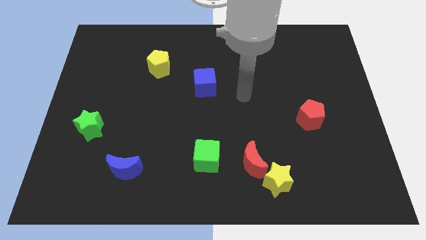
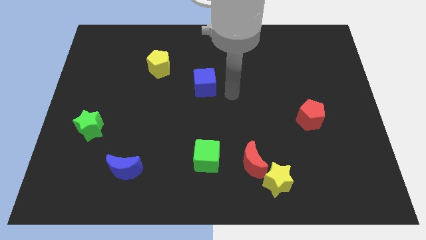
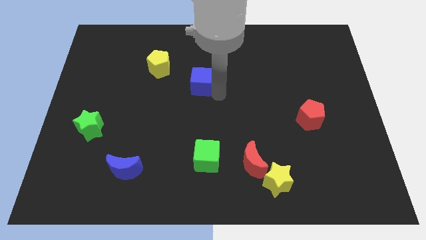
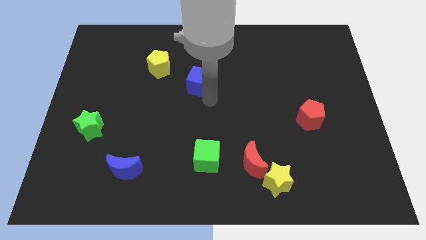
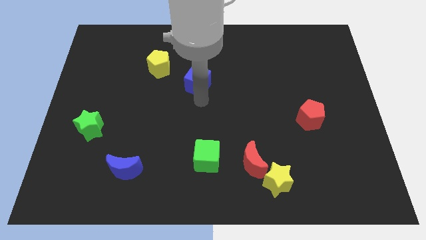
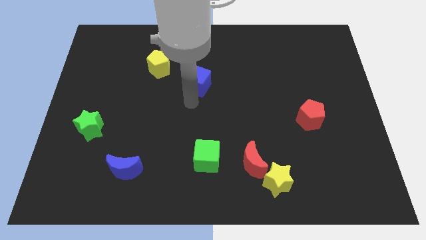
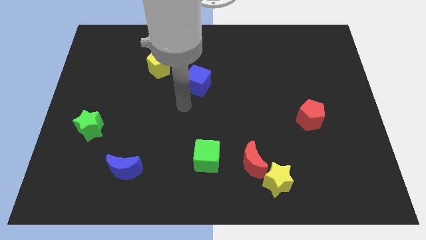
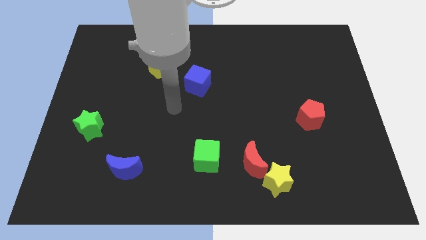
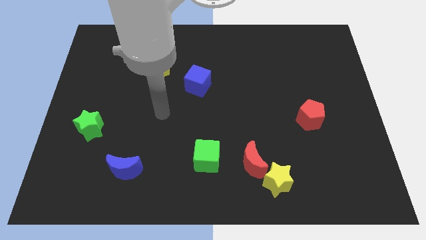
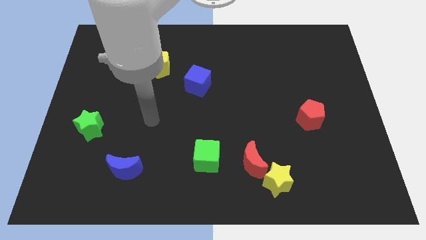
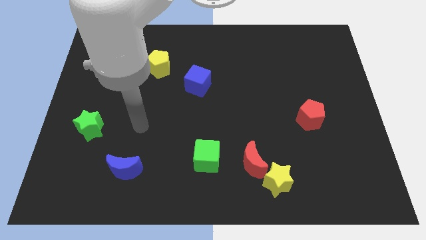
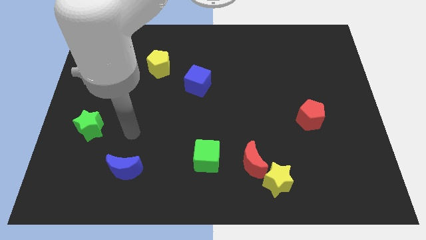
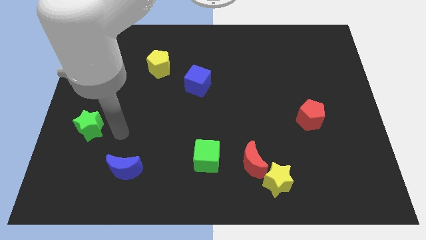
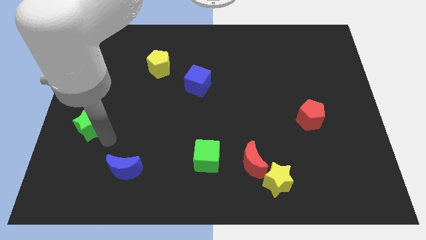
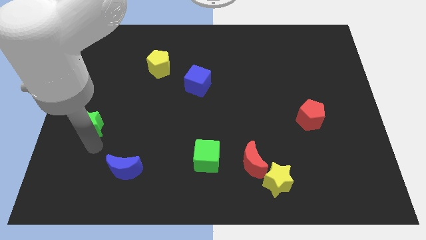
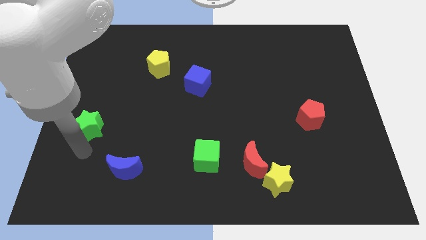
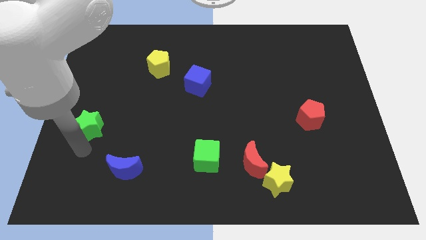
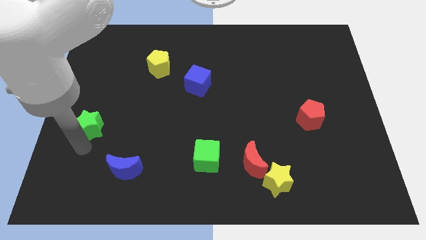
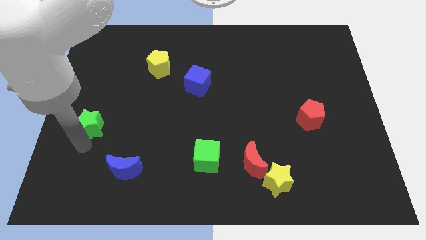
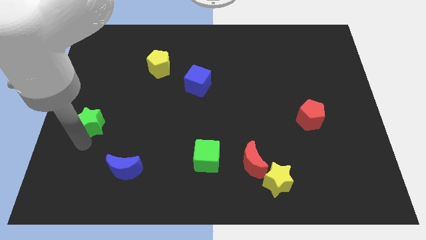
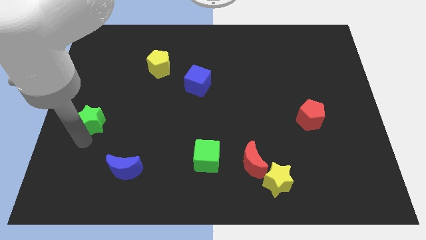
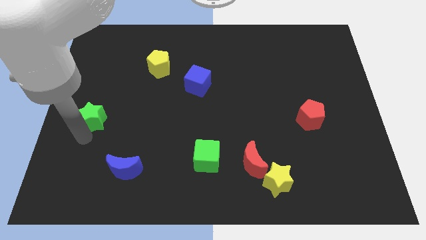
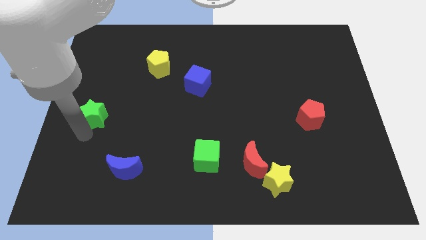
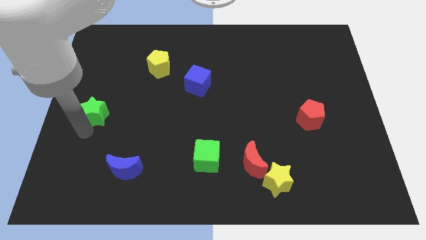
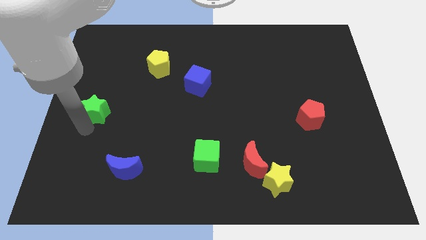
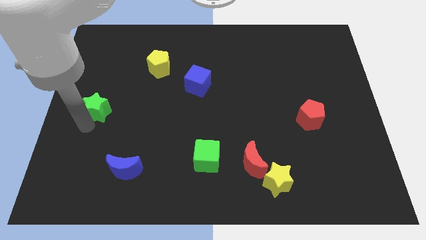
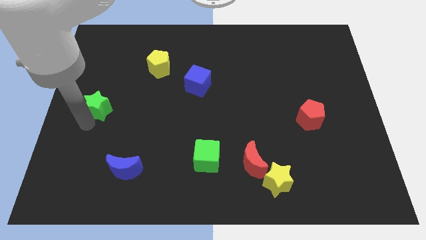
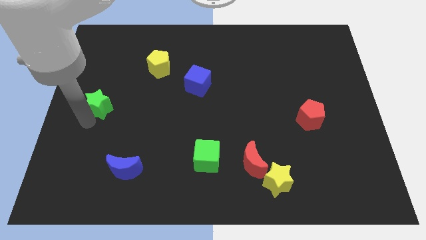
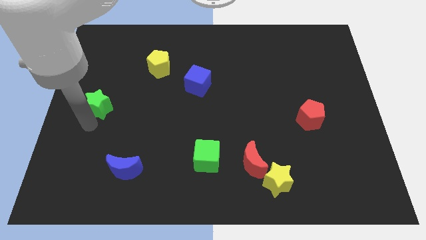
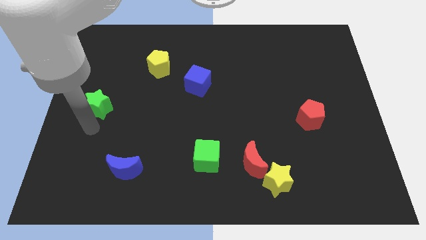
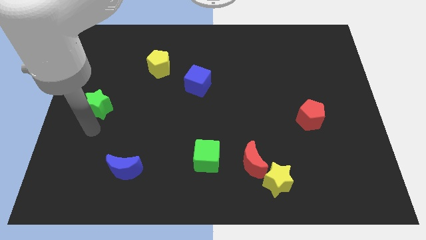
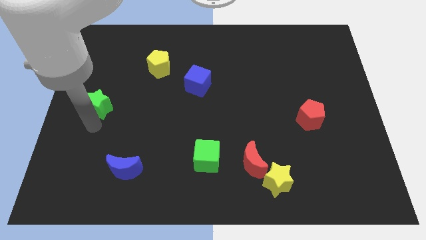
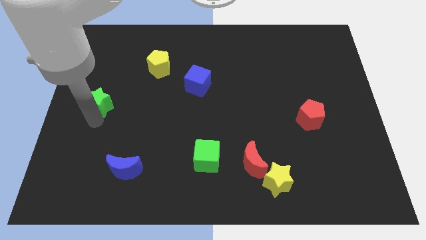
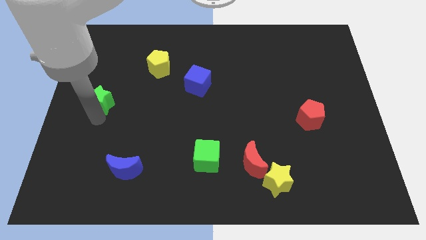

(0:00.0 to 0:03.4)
push the green star up a little bit

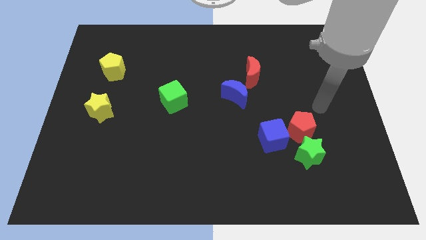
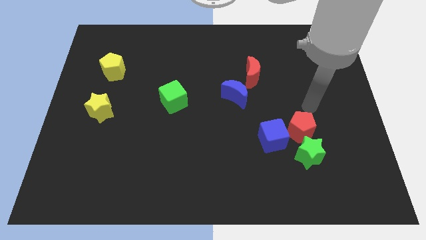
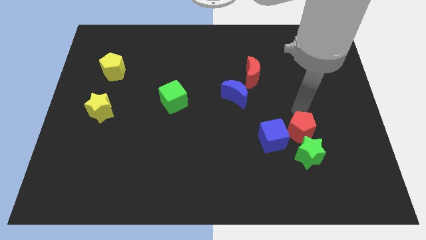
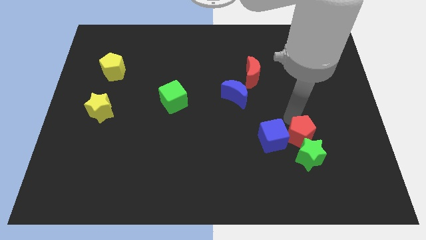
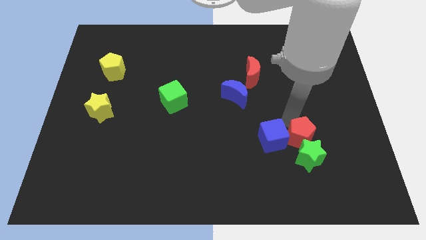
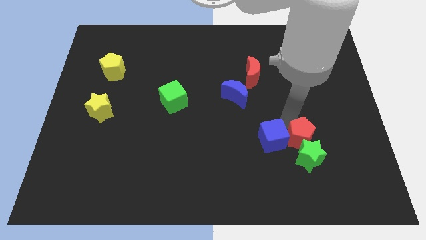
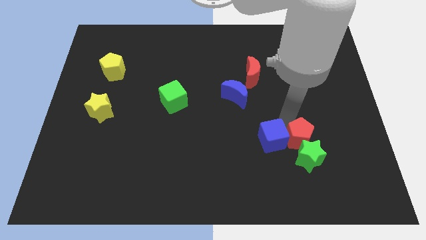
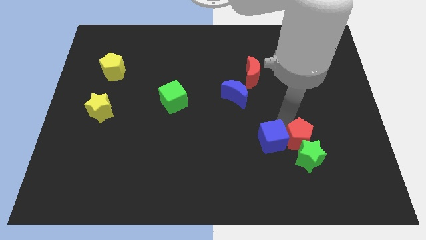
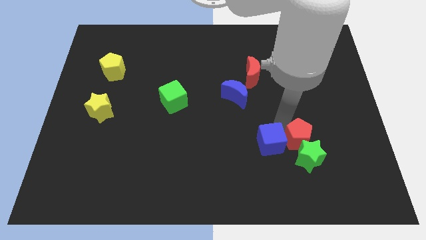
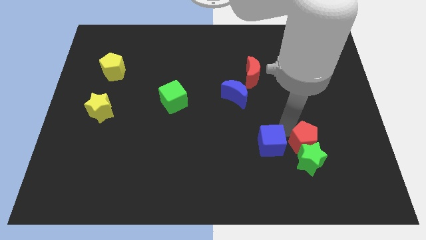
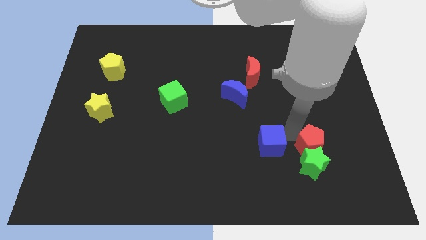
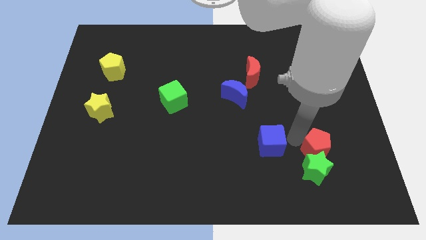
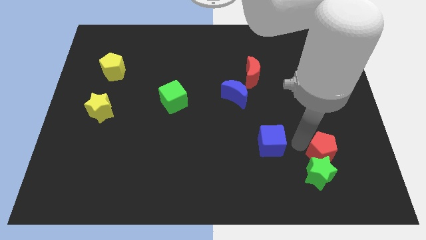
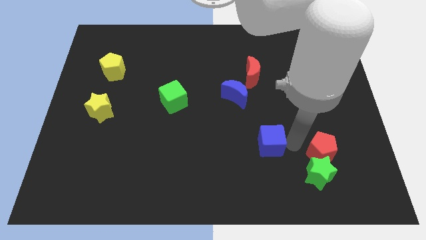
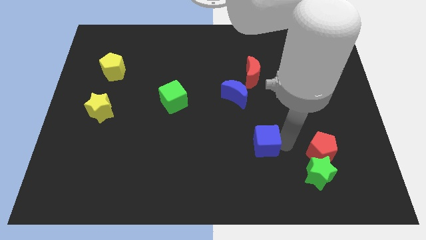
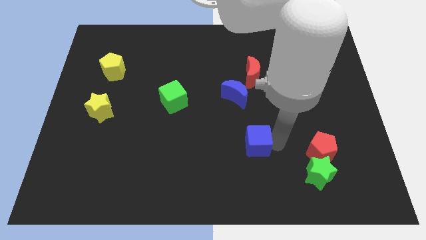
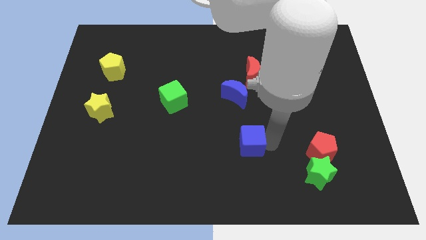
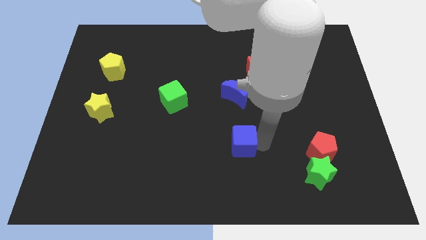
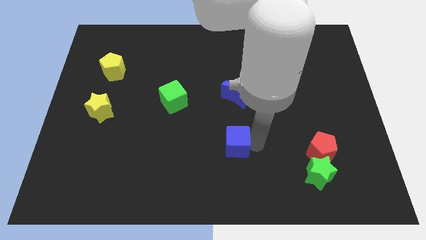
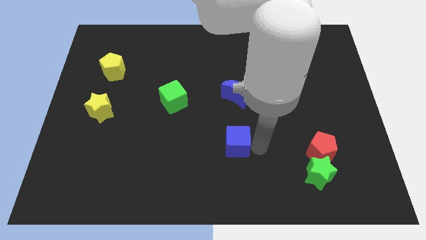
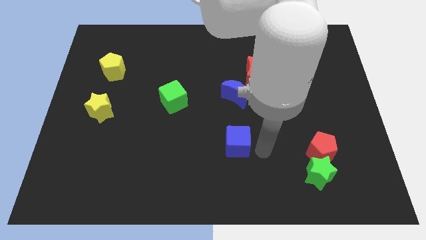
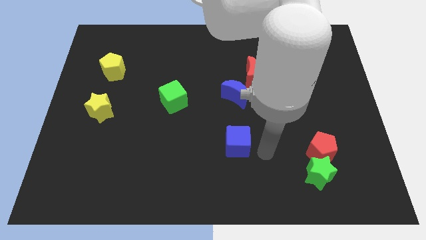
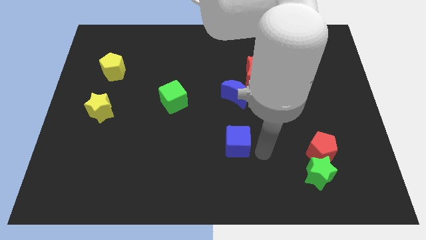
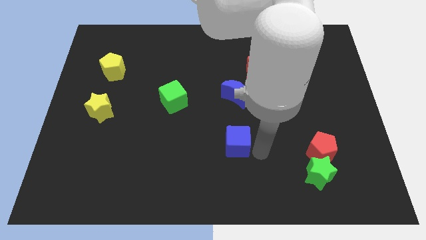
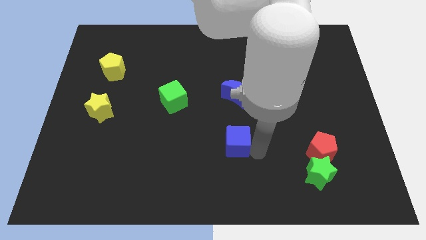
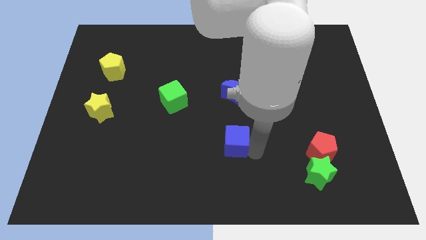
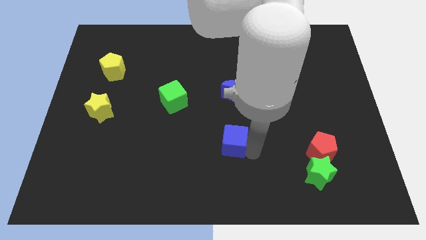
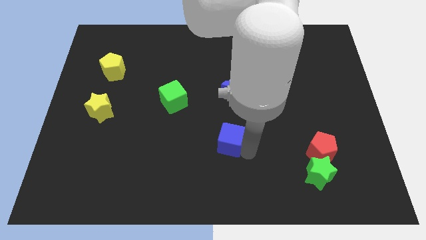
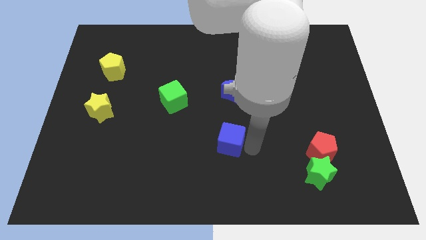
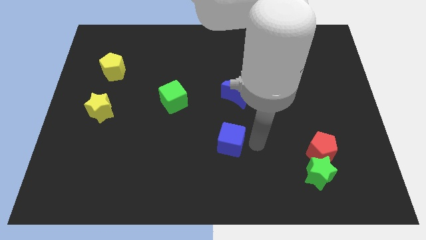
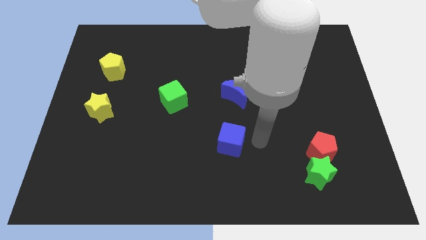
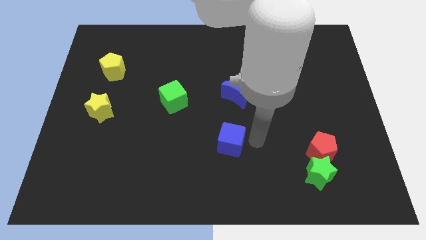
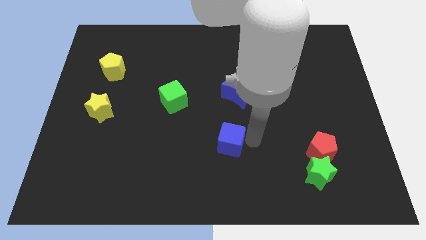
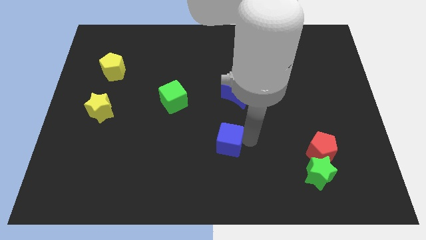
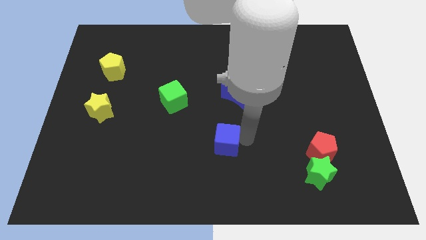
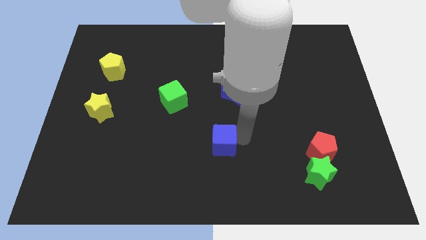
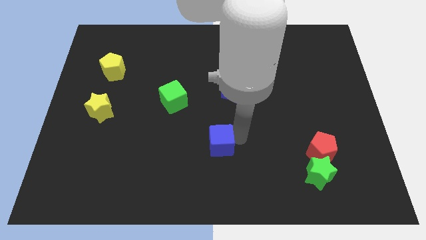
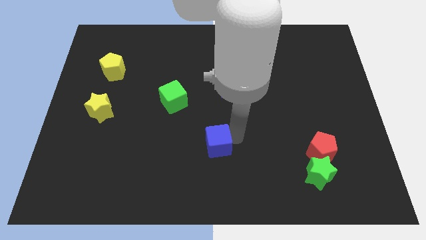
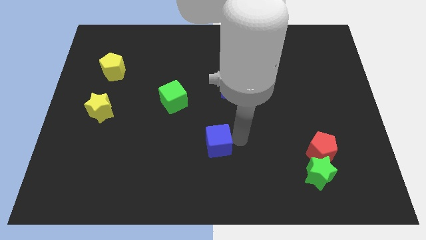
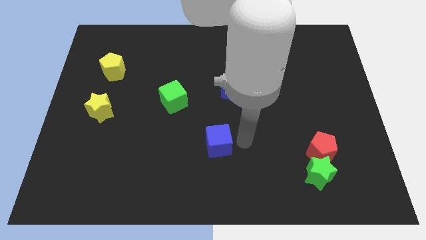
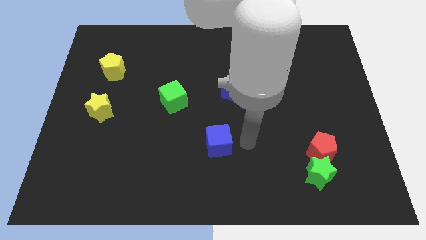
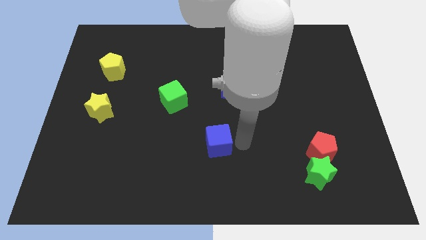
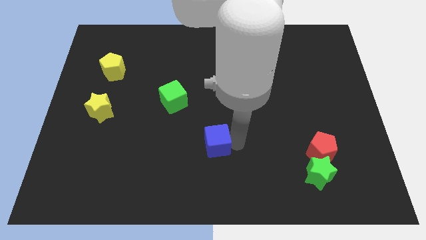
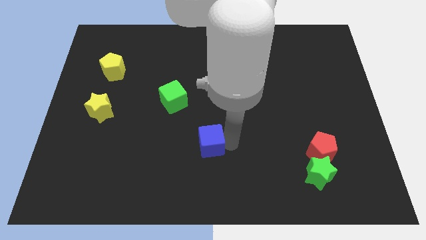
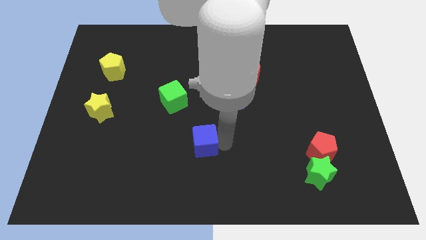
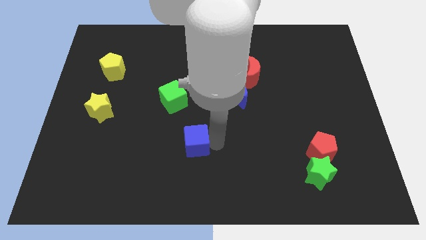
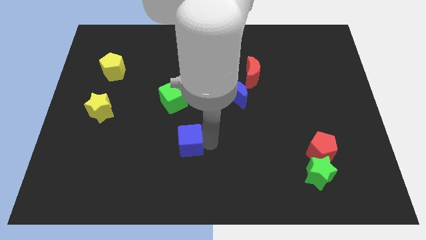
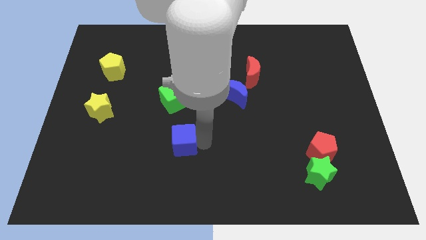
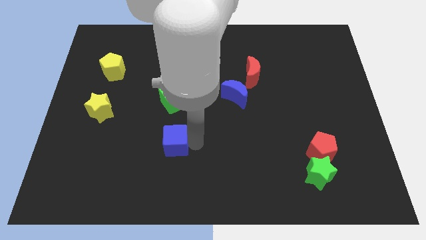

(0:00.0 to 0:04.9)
slide the blue cube to the left
